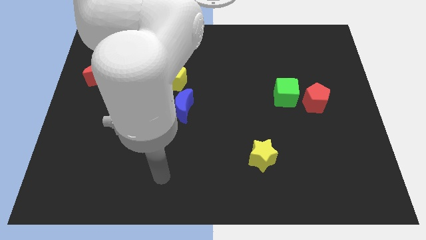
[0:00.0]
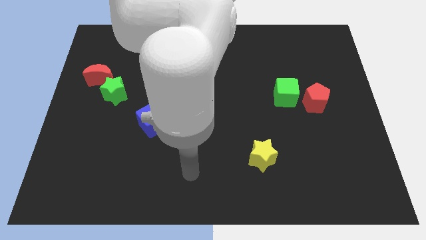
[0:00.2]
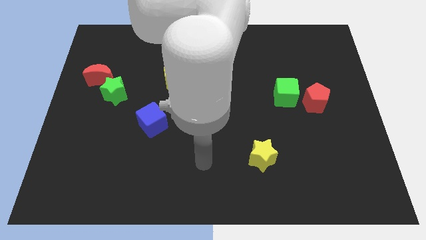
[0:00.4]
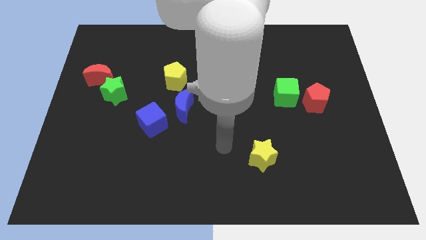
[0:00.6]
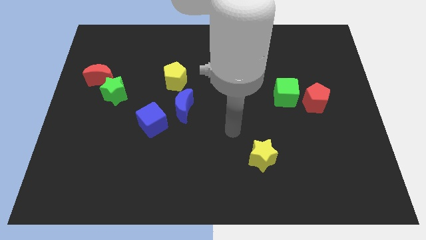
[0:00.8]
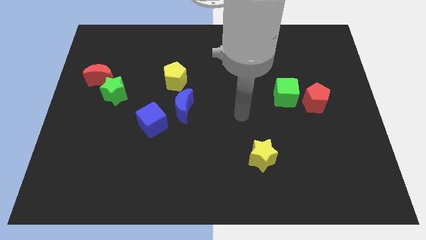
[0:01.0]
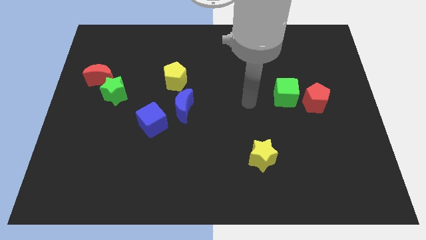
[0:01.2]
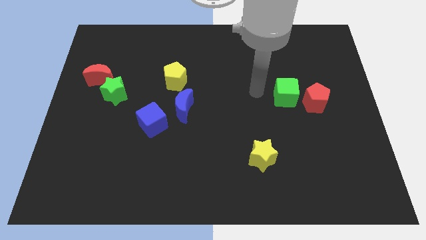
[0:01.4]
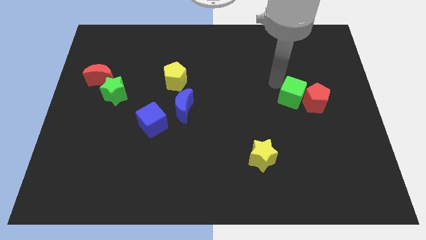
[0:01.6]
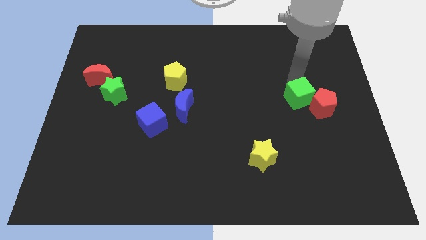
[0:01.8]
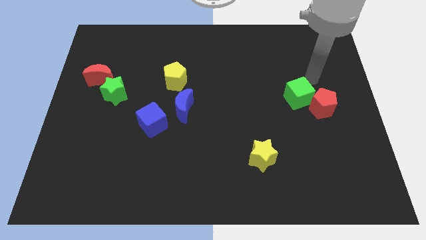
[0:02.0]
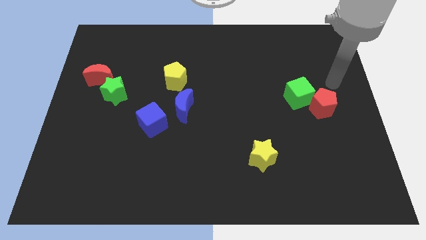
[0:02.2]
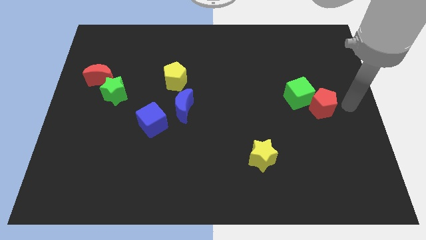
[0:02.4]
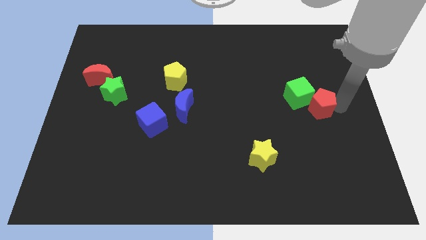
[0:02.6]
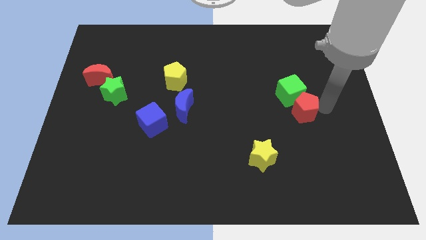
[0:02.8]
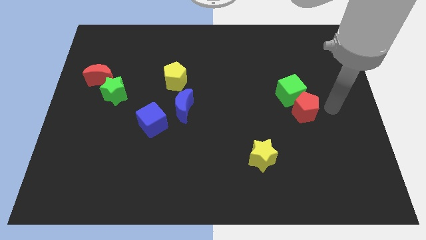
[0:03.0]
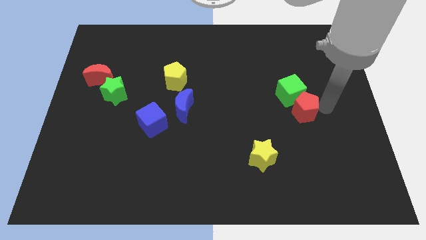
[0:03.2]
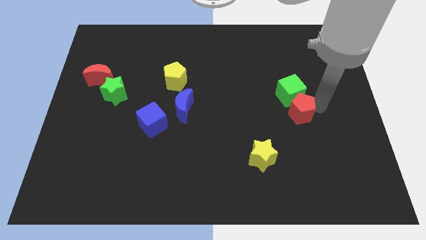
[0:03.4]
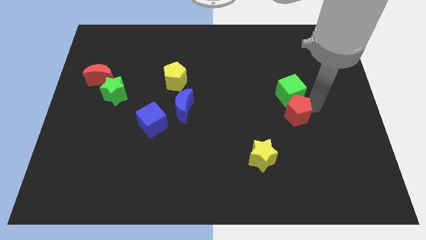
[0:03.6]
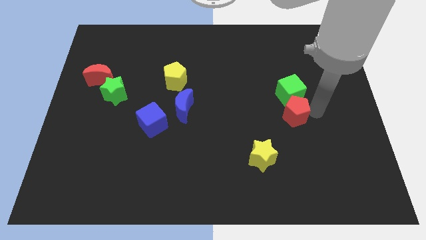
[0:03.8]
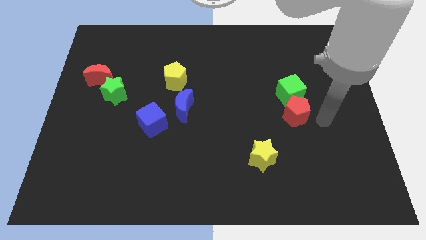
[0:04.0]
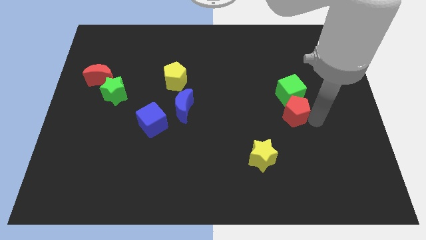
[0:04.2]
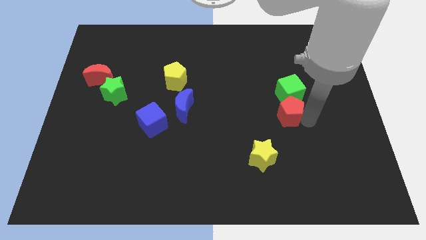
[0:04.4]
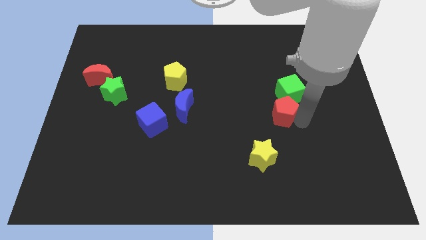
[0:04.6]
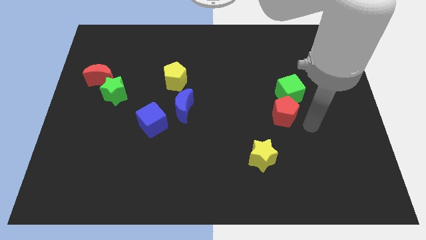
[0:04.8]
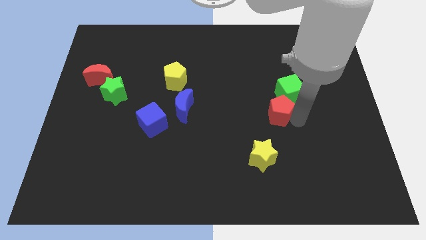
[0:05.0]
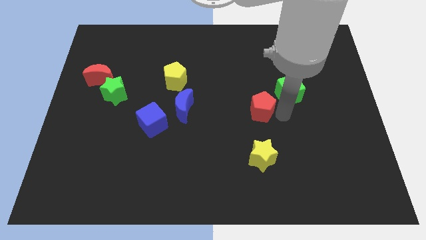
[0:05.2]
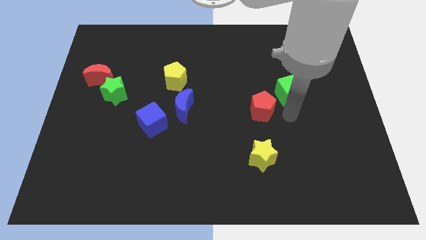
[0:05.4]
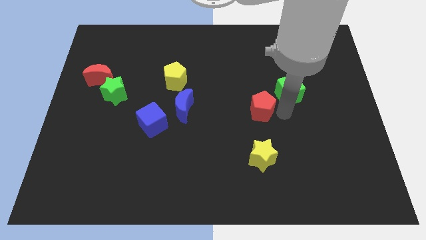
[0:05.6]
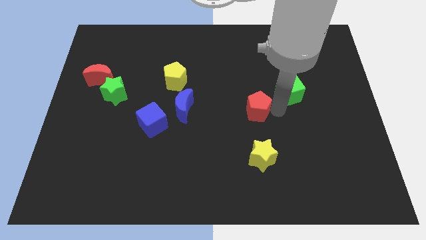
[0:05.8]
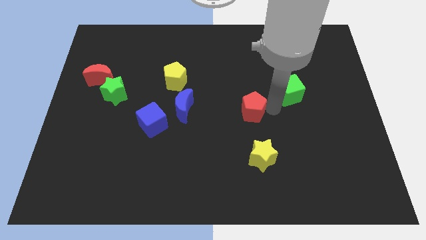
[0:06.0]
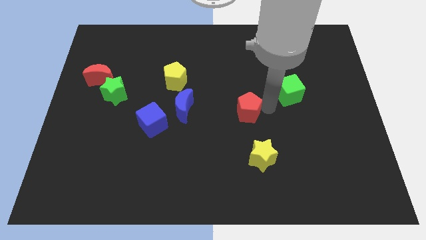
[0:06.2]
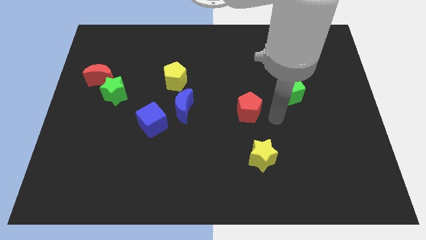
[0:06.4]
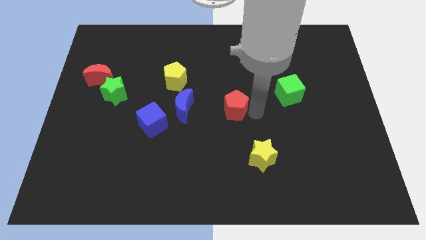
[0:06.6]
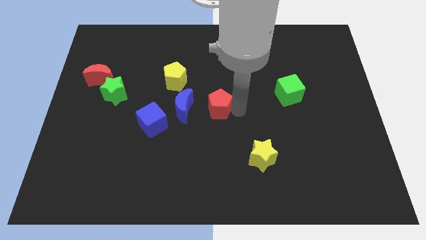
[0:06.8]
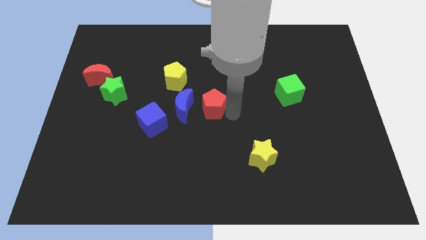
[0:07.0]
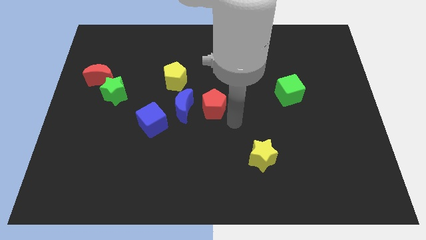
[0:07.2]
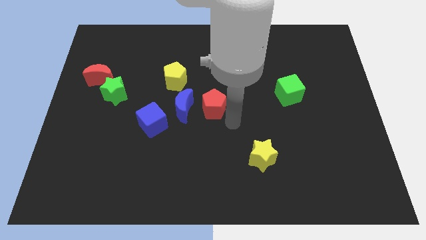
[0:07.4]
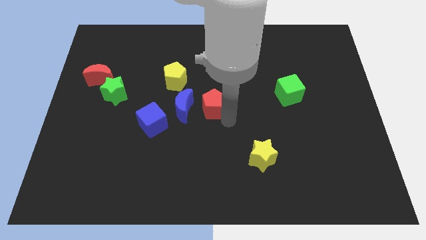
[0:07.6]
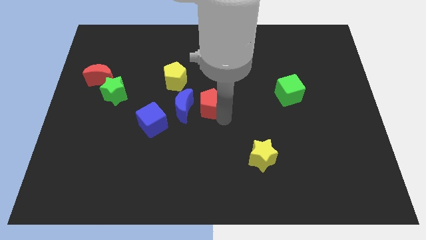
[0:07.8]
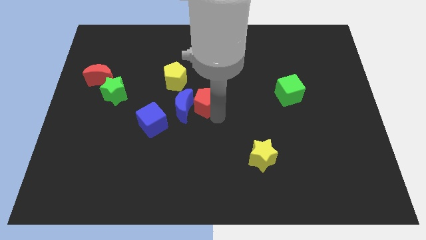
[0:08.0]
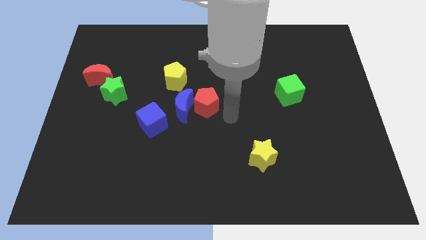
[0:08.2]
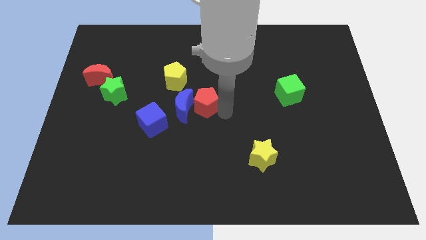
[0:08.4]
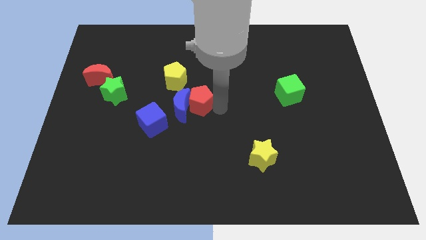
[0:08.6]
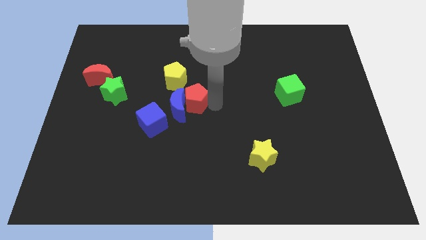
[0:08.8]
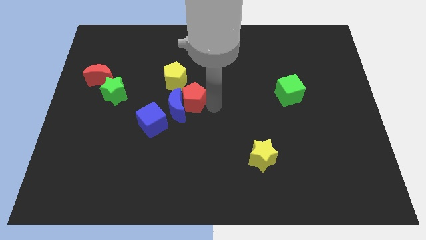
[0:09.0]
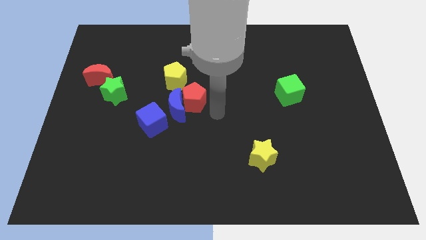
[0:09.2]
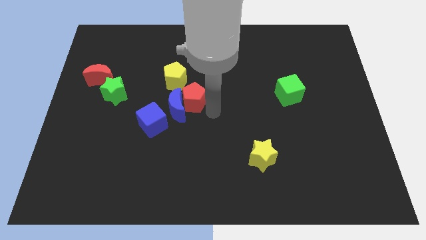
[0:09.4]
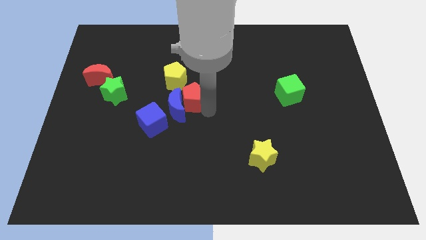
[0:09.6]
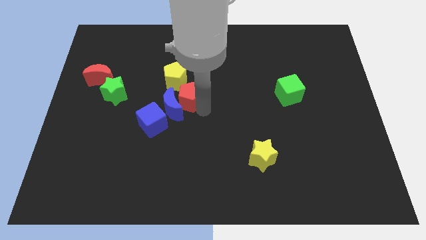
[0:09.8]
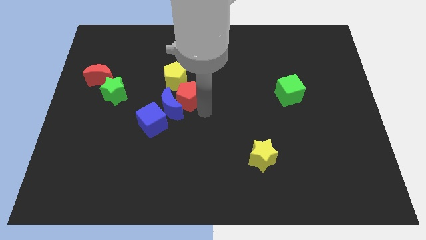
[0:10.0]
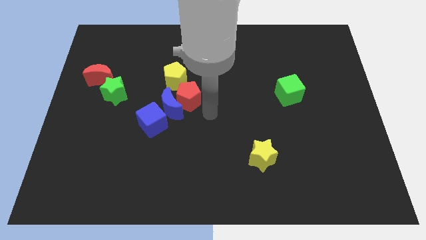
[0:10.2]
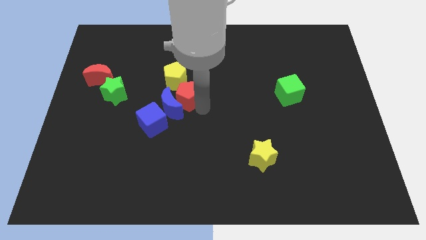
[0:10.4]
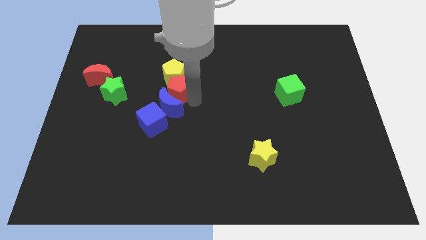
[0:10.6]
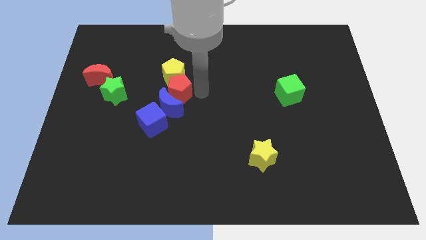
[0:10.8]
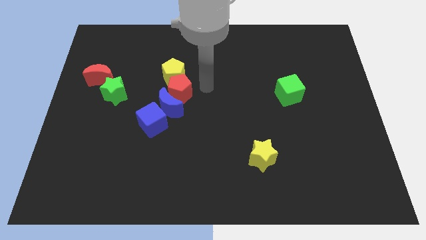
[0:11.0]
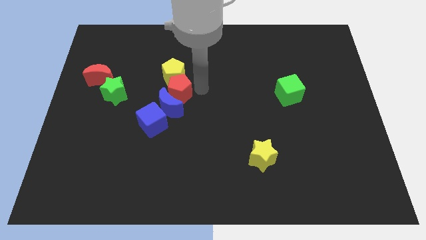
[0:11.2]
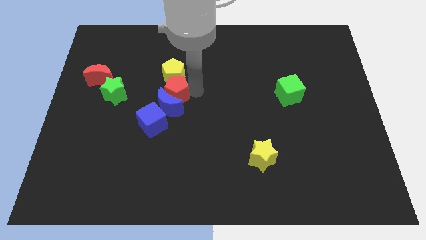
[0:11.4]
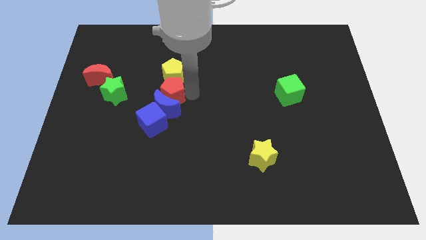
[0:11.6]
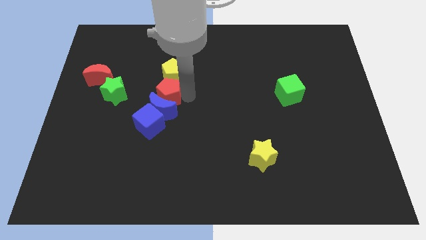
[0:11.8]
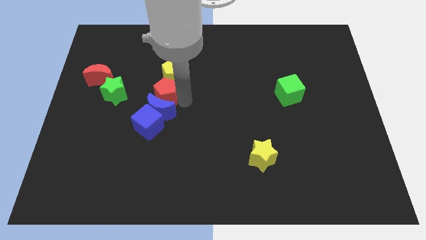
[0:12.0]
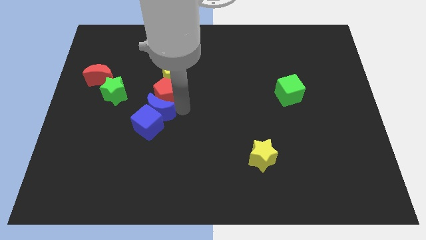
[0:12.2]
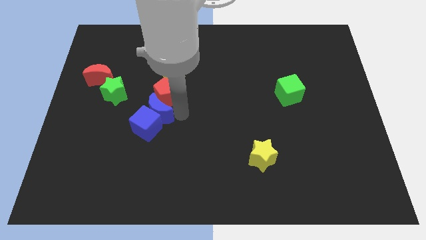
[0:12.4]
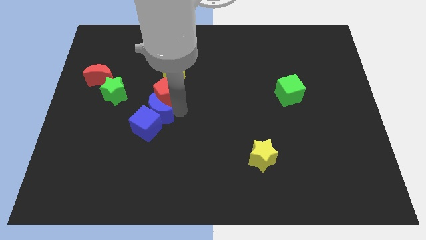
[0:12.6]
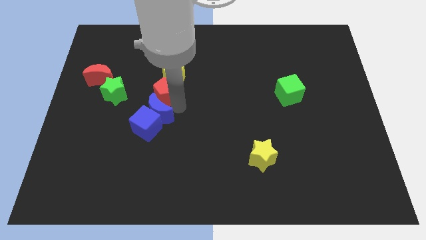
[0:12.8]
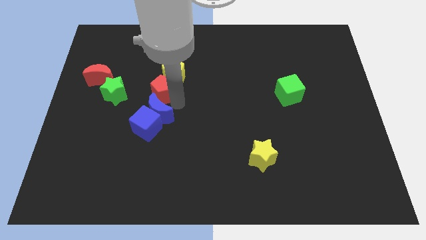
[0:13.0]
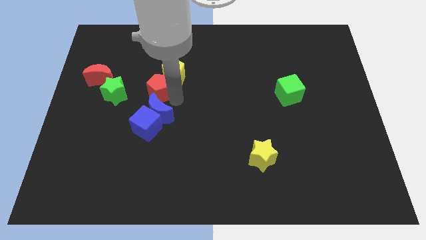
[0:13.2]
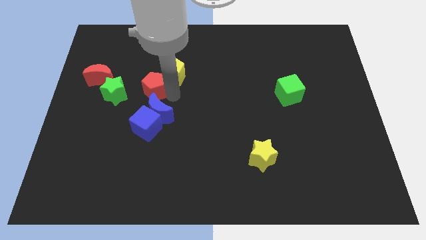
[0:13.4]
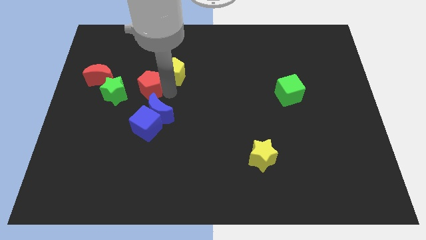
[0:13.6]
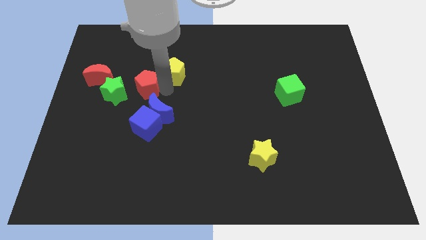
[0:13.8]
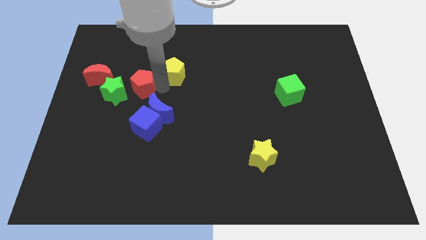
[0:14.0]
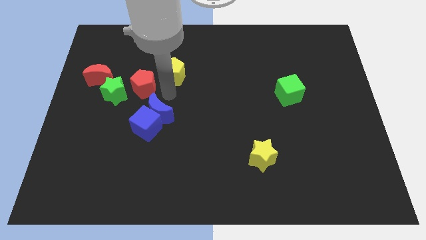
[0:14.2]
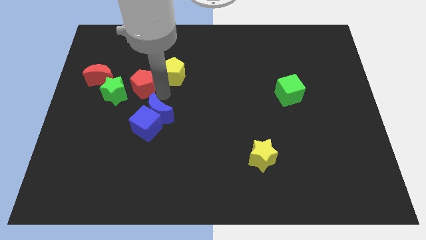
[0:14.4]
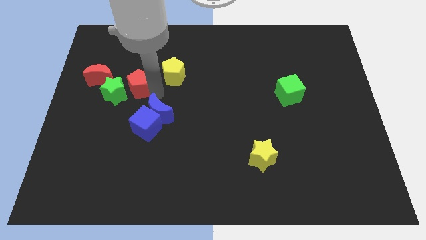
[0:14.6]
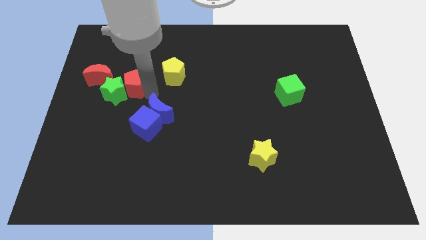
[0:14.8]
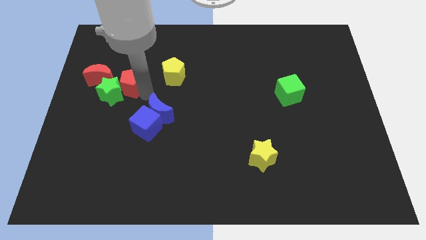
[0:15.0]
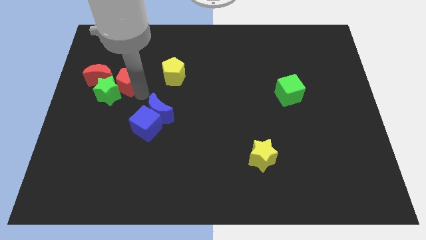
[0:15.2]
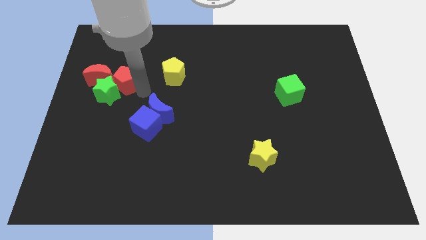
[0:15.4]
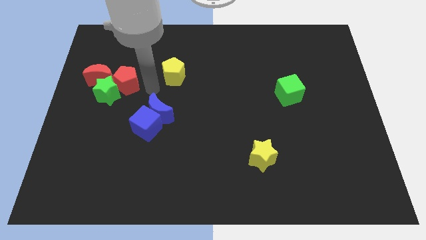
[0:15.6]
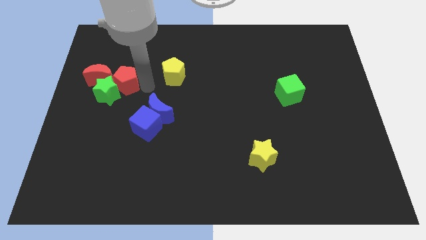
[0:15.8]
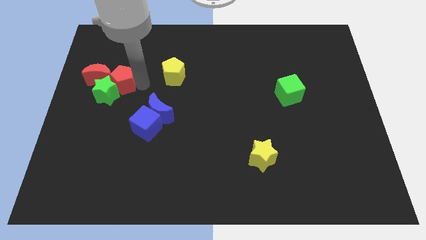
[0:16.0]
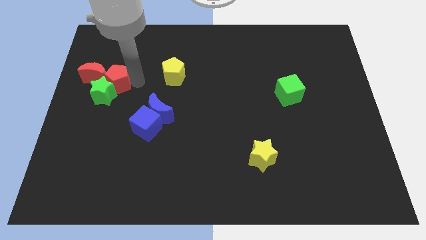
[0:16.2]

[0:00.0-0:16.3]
slide the red pentagon to the red moon
